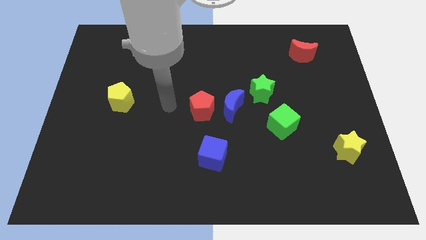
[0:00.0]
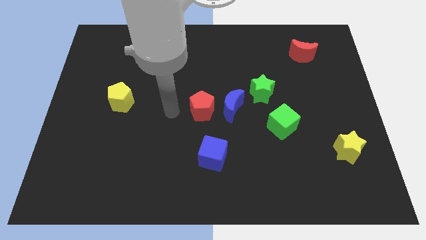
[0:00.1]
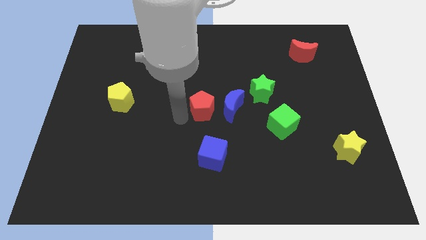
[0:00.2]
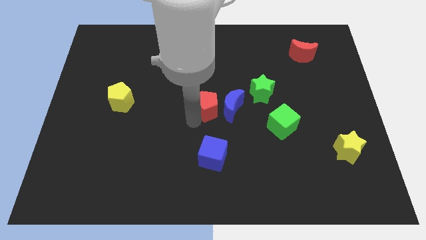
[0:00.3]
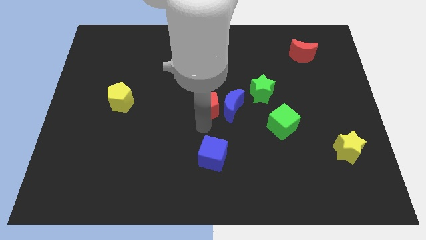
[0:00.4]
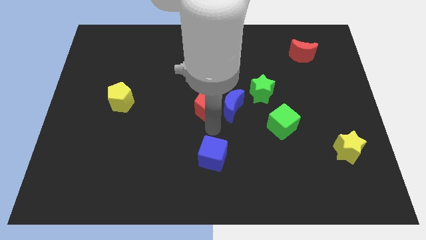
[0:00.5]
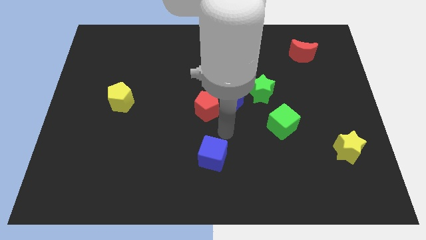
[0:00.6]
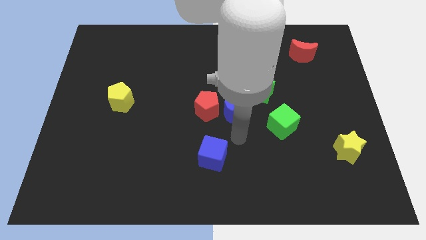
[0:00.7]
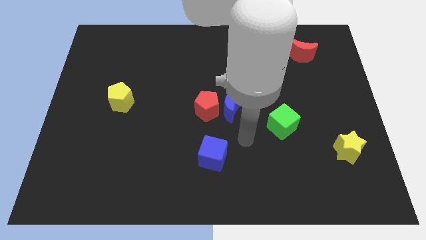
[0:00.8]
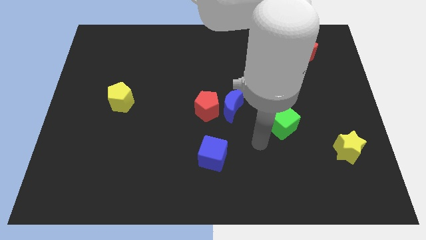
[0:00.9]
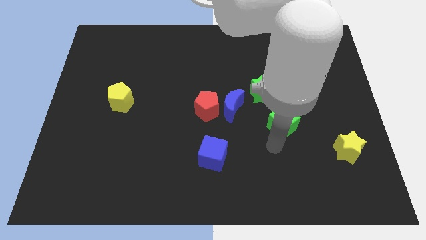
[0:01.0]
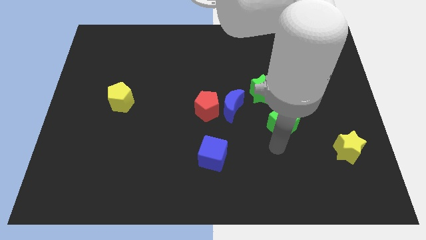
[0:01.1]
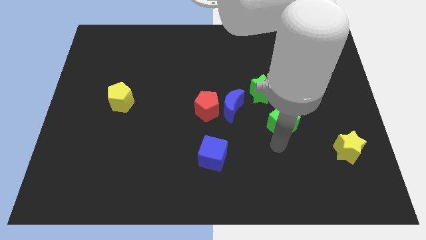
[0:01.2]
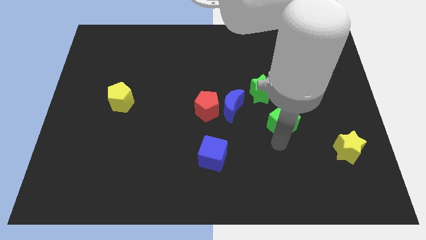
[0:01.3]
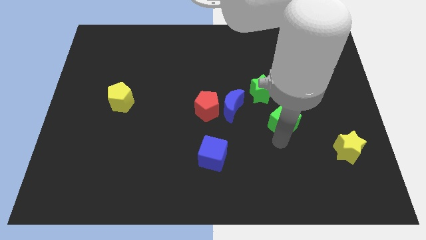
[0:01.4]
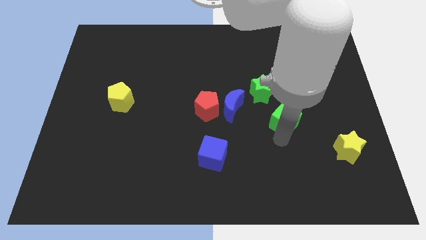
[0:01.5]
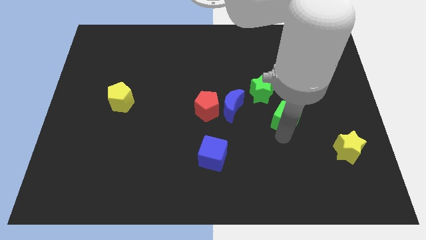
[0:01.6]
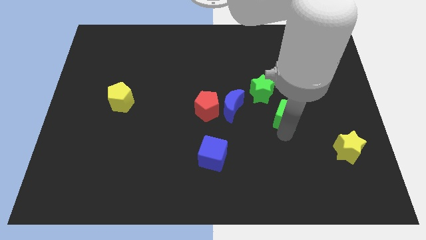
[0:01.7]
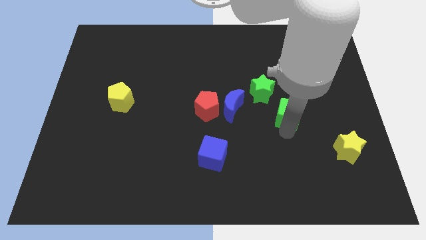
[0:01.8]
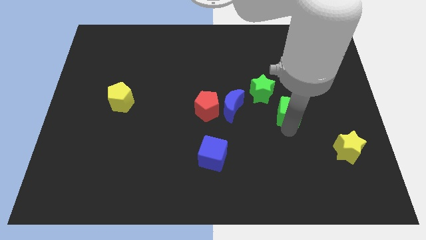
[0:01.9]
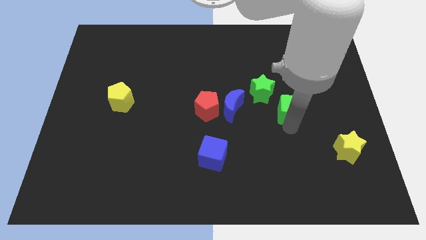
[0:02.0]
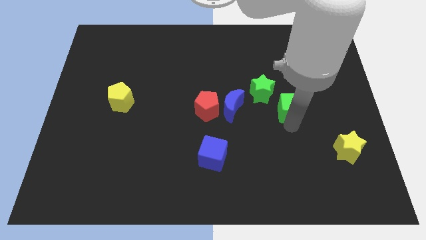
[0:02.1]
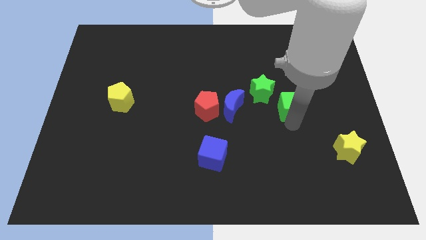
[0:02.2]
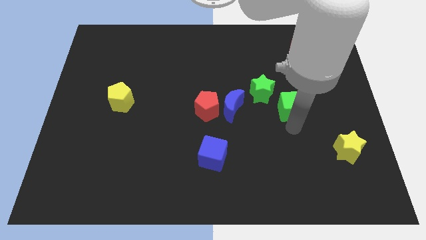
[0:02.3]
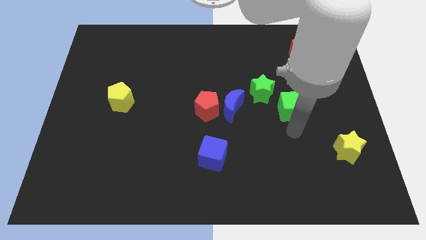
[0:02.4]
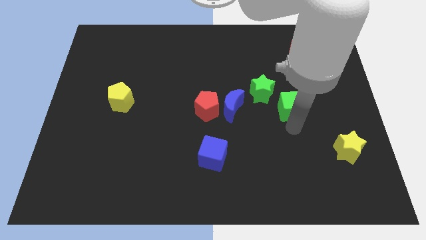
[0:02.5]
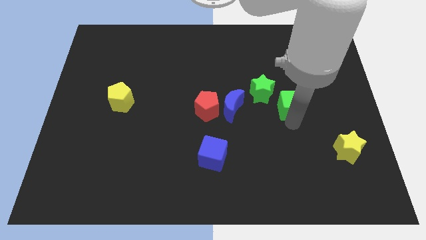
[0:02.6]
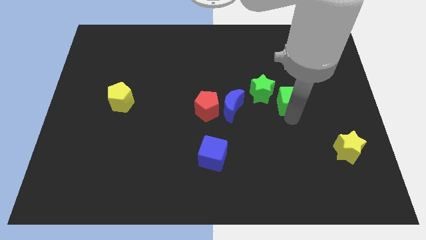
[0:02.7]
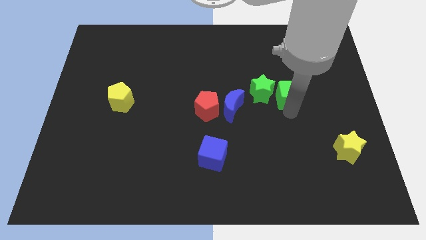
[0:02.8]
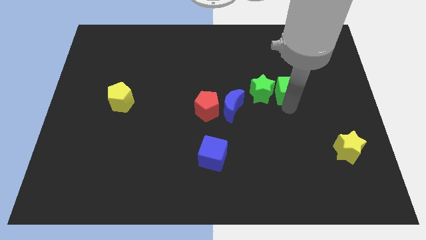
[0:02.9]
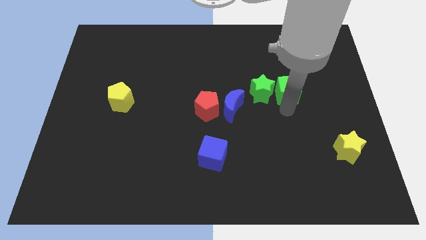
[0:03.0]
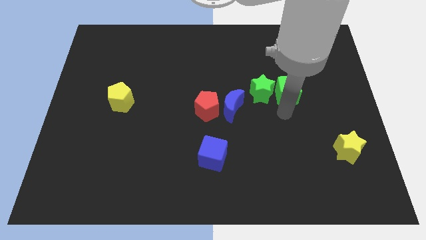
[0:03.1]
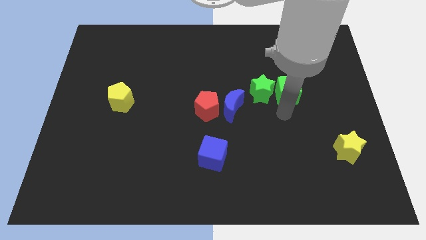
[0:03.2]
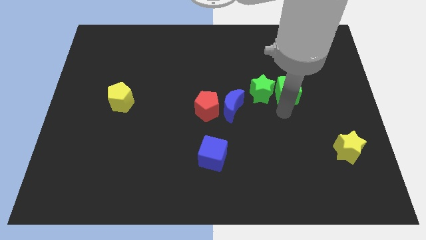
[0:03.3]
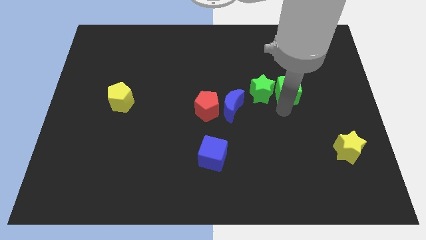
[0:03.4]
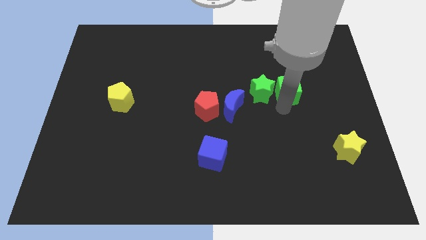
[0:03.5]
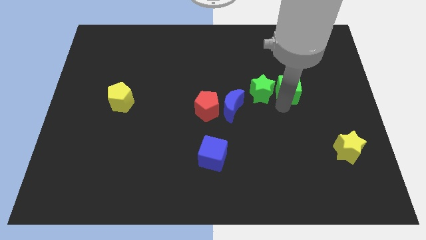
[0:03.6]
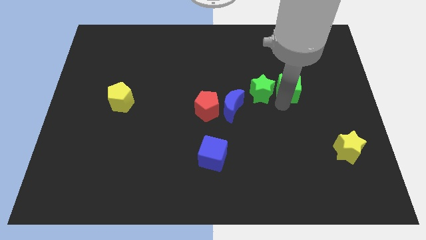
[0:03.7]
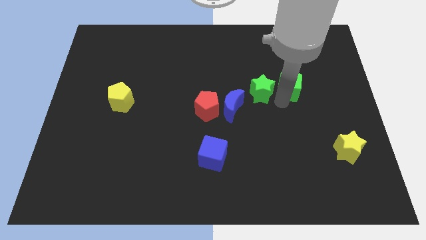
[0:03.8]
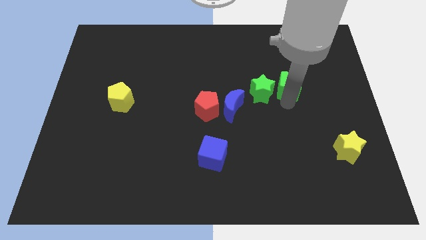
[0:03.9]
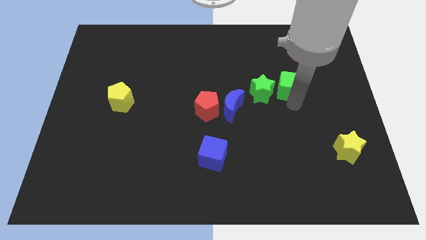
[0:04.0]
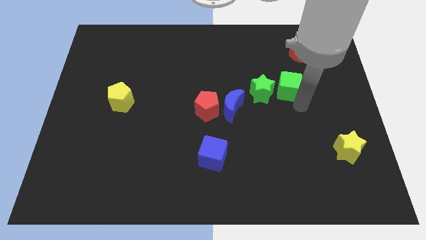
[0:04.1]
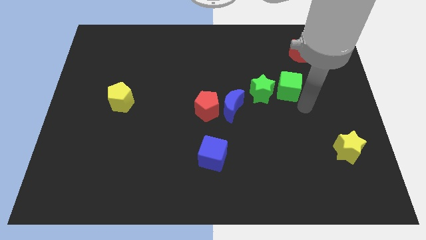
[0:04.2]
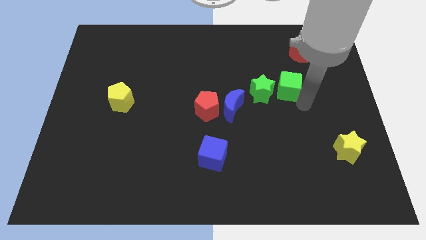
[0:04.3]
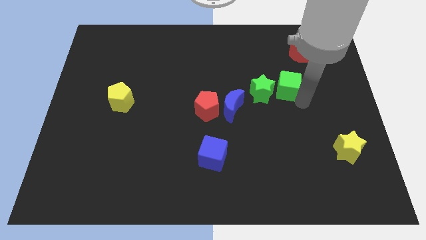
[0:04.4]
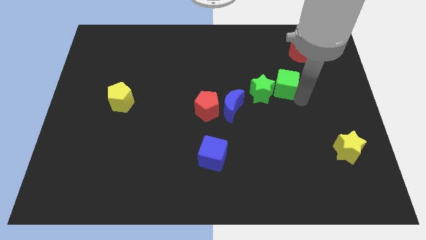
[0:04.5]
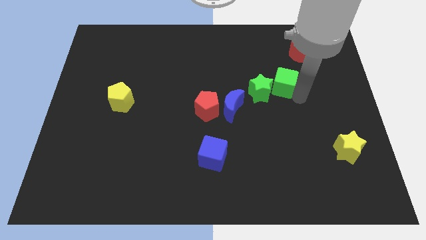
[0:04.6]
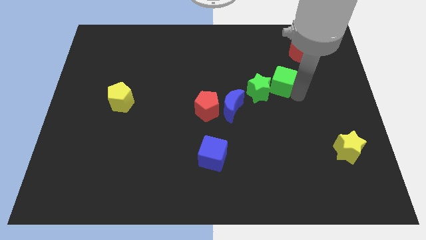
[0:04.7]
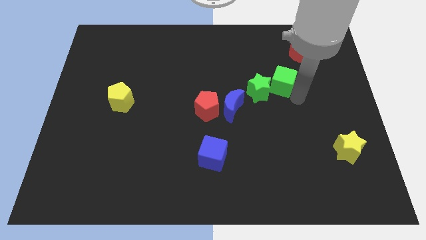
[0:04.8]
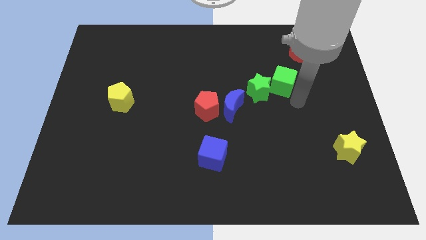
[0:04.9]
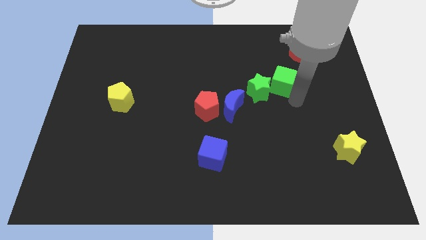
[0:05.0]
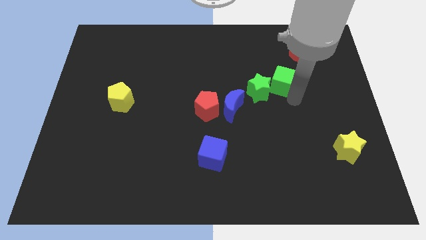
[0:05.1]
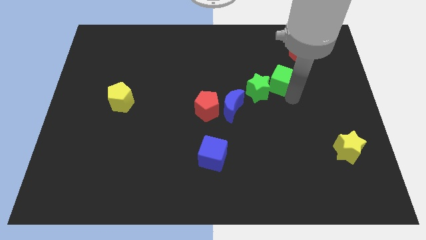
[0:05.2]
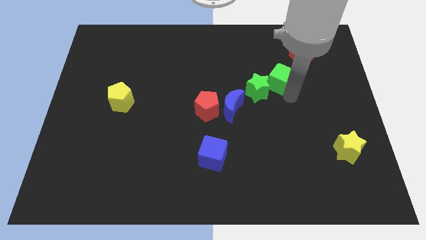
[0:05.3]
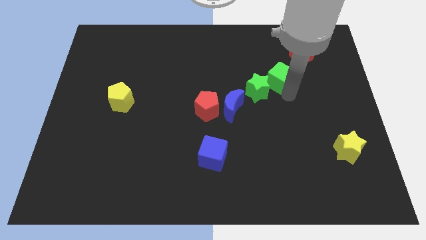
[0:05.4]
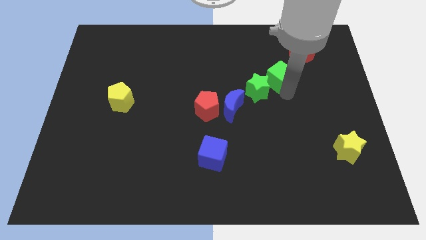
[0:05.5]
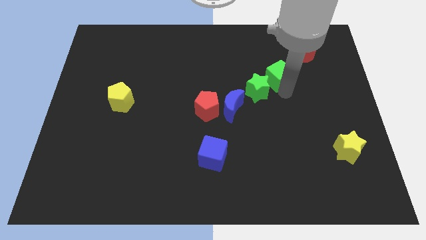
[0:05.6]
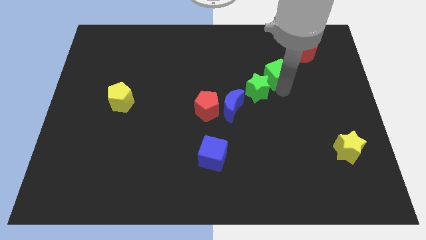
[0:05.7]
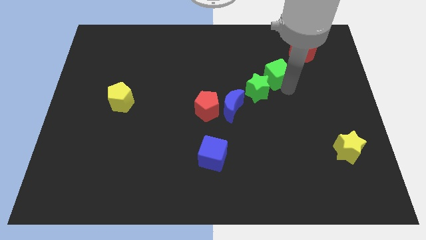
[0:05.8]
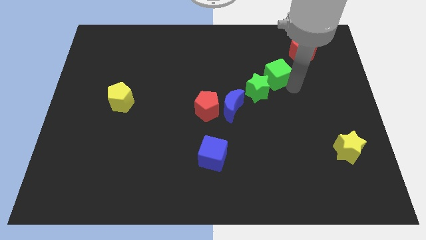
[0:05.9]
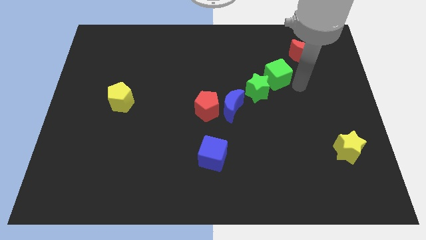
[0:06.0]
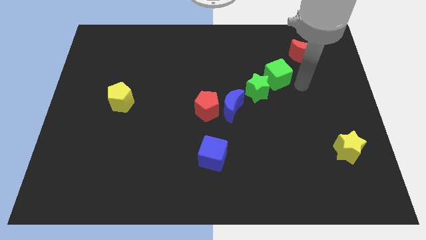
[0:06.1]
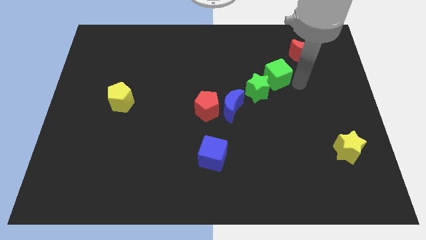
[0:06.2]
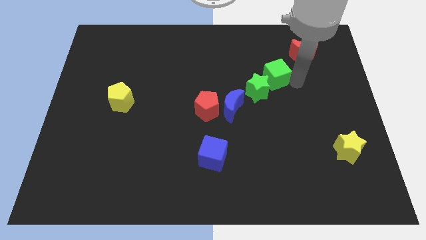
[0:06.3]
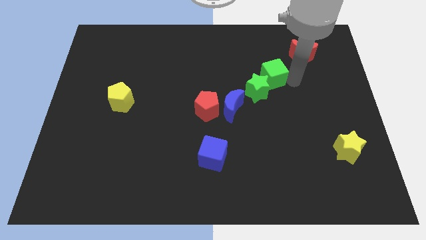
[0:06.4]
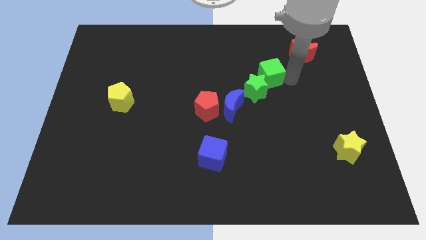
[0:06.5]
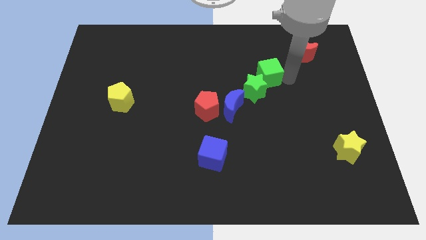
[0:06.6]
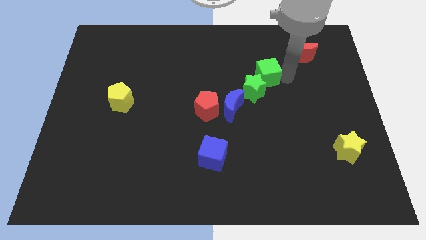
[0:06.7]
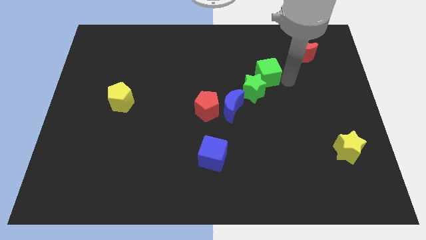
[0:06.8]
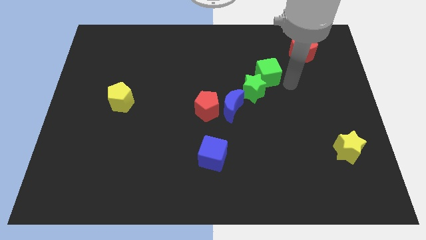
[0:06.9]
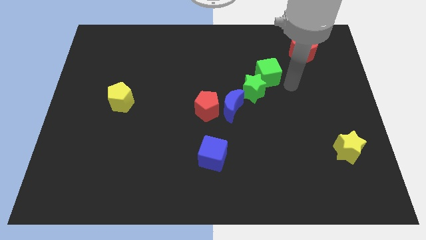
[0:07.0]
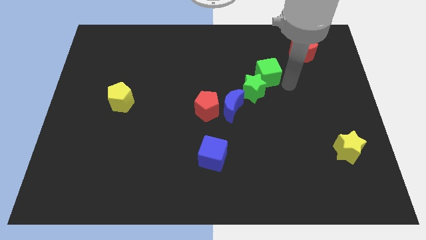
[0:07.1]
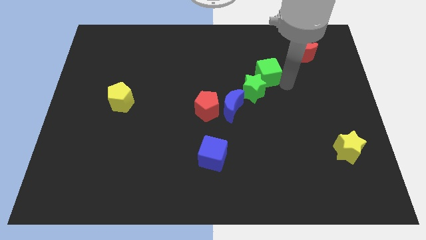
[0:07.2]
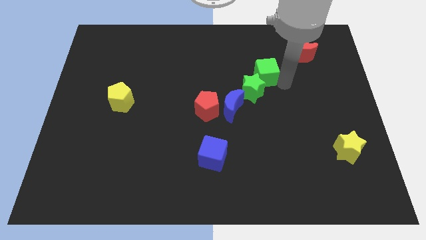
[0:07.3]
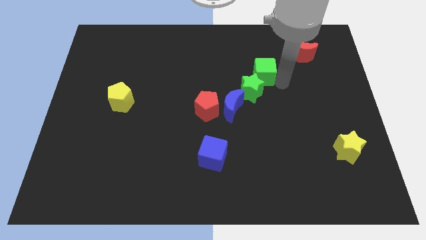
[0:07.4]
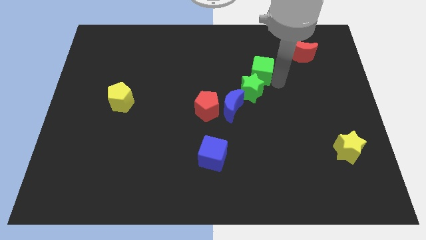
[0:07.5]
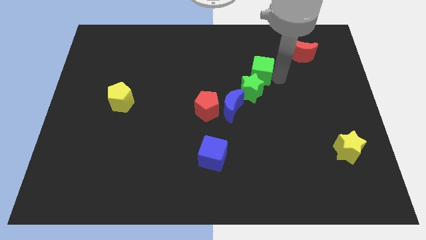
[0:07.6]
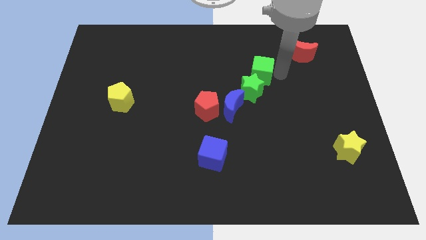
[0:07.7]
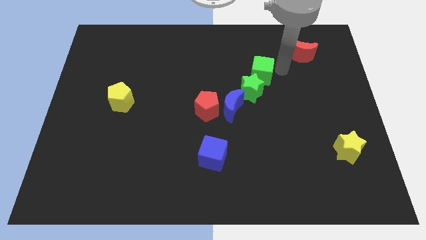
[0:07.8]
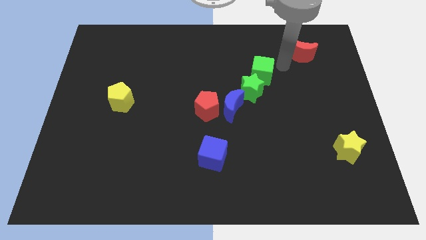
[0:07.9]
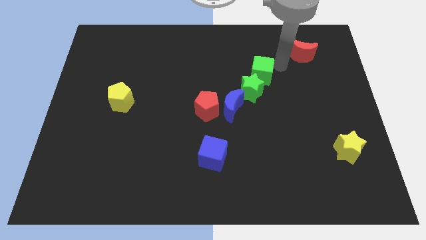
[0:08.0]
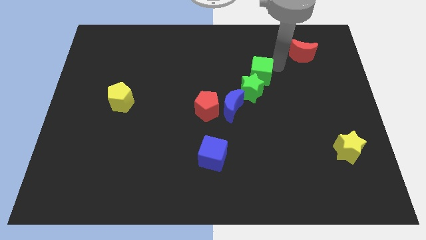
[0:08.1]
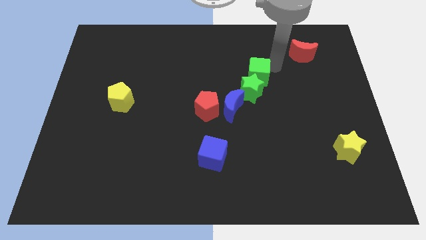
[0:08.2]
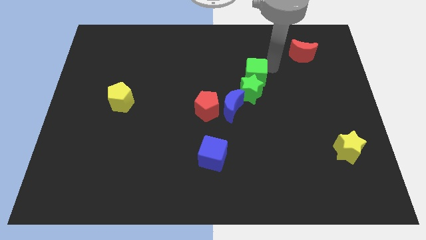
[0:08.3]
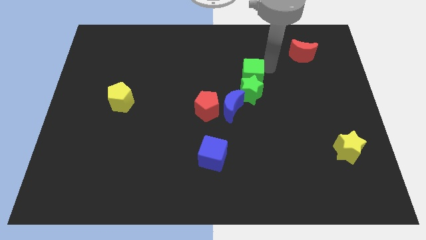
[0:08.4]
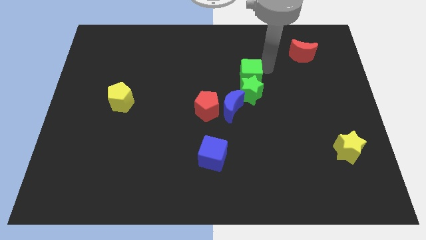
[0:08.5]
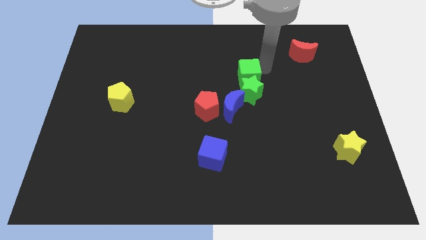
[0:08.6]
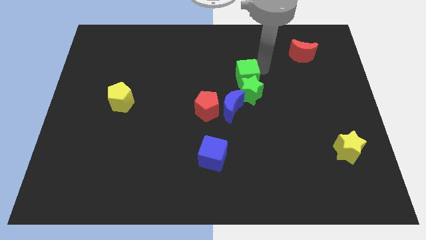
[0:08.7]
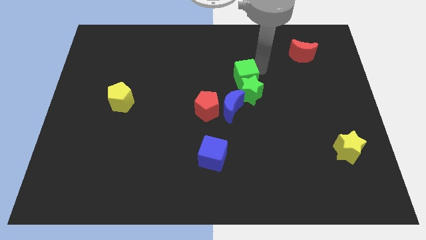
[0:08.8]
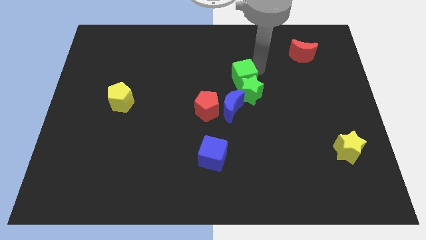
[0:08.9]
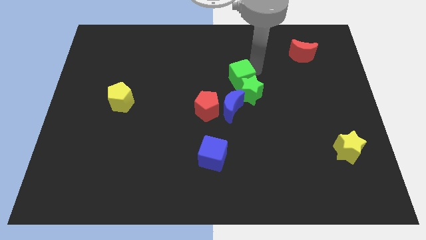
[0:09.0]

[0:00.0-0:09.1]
move the green cube to the top right of the red pentagon
